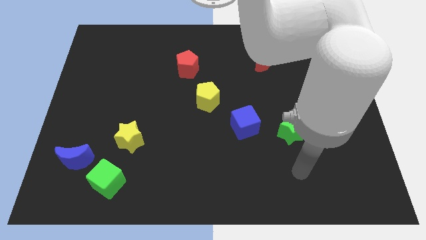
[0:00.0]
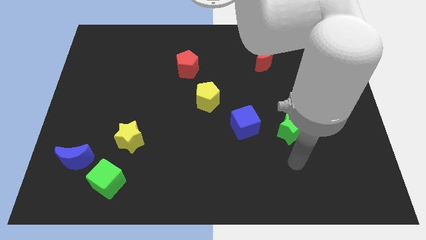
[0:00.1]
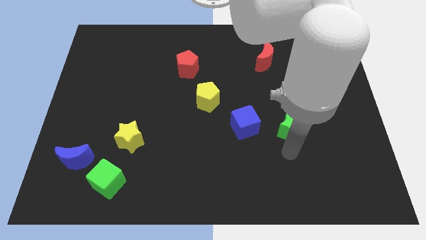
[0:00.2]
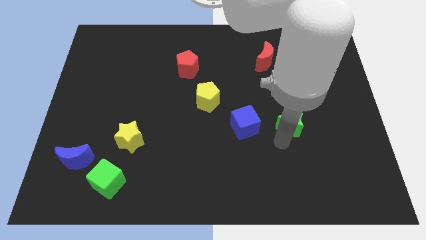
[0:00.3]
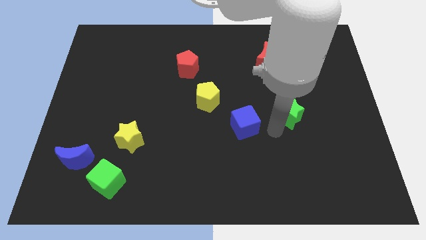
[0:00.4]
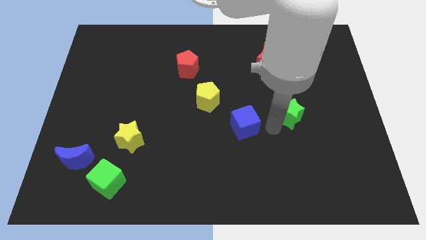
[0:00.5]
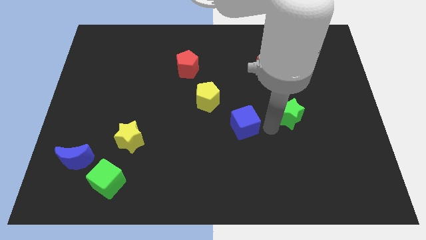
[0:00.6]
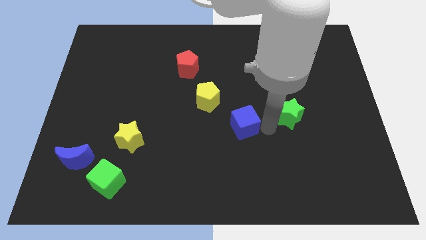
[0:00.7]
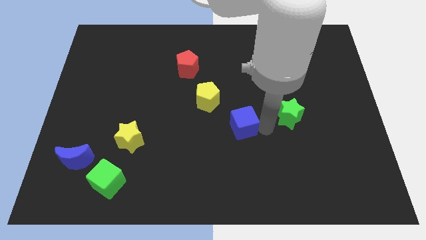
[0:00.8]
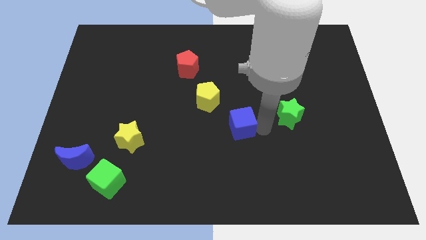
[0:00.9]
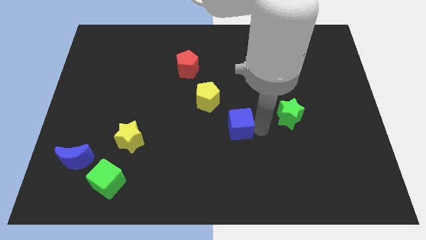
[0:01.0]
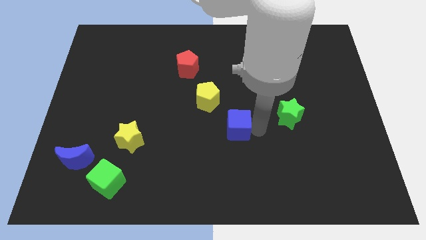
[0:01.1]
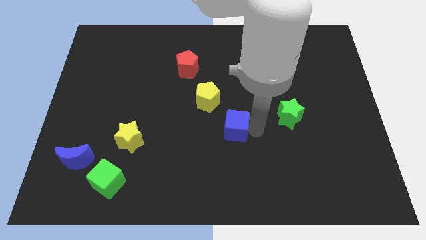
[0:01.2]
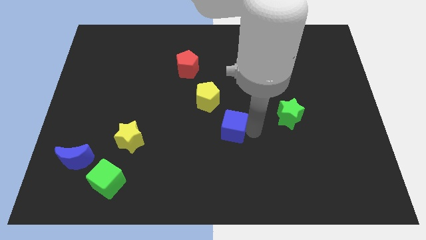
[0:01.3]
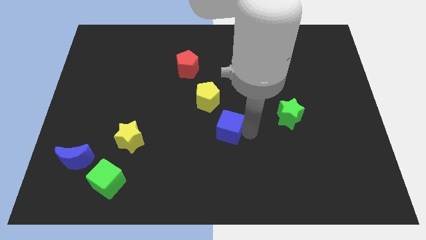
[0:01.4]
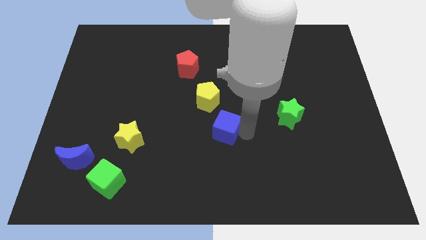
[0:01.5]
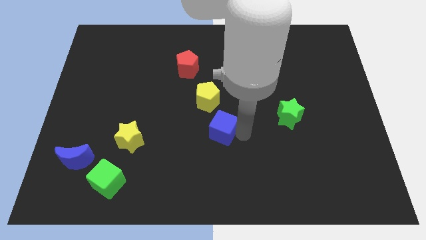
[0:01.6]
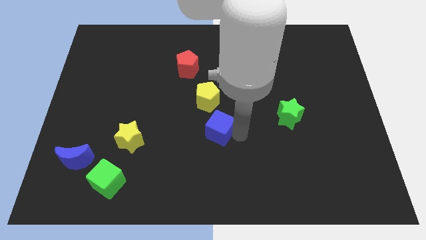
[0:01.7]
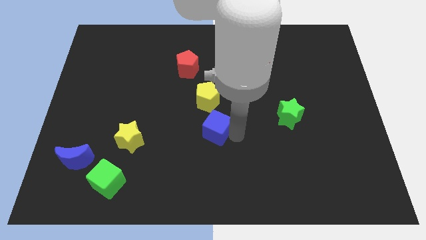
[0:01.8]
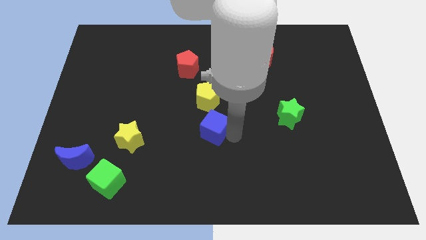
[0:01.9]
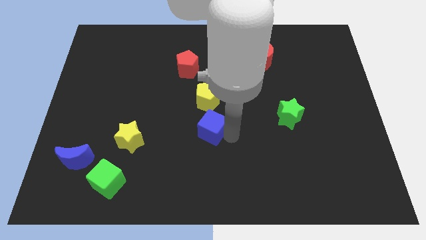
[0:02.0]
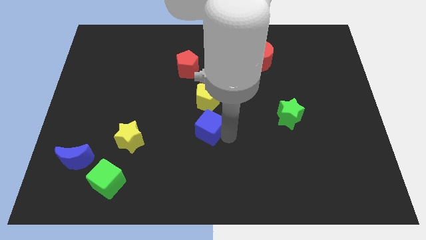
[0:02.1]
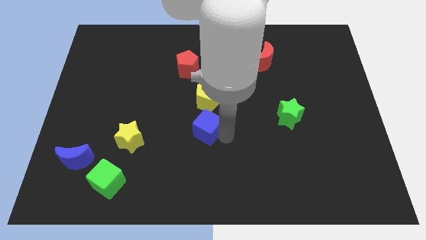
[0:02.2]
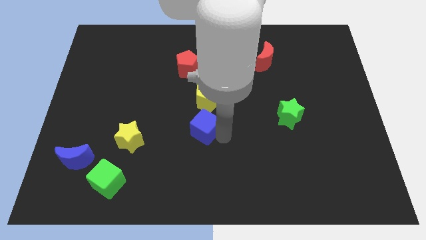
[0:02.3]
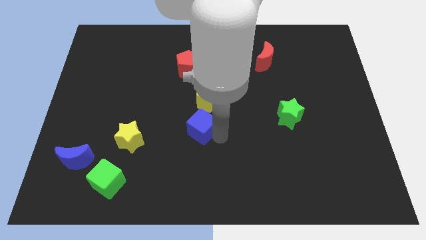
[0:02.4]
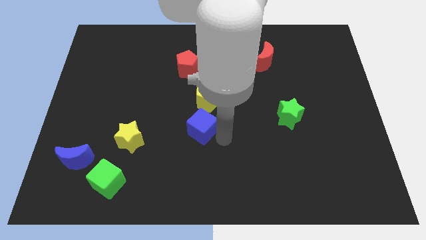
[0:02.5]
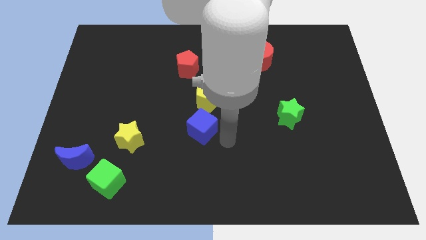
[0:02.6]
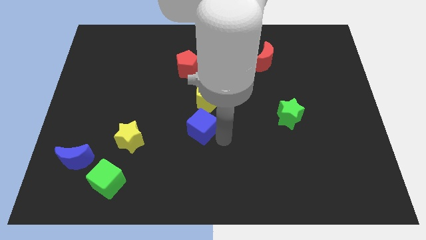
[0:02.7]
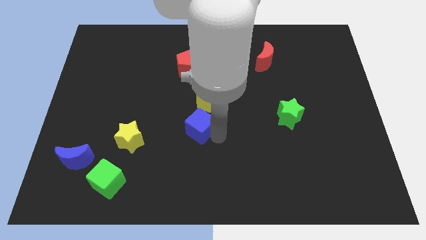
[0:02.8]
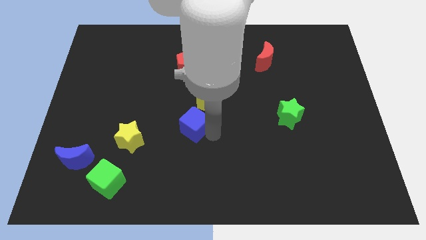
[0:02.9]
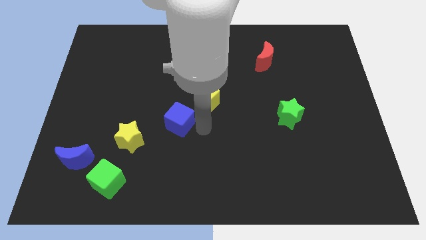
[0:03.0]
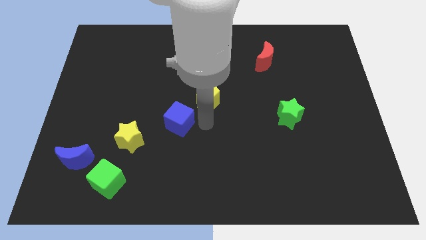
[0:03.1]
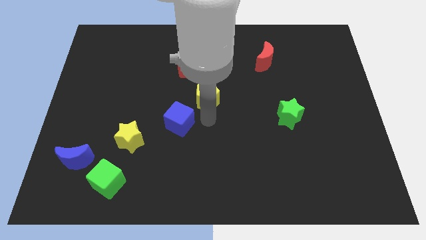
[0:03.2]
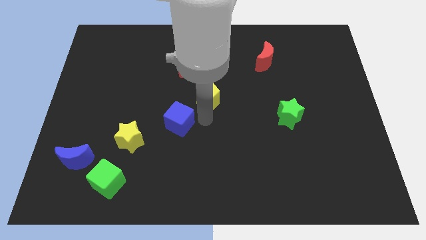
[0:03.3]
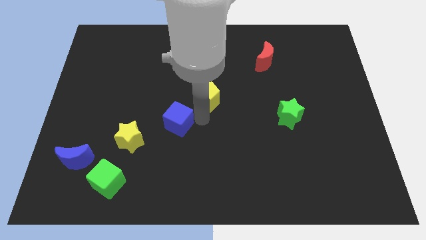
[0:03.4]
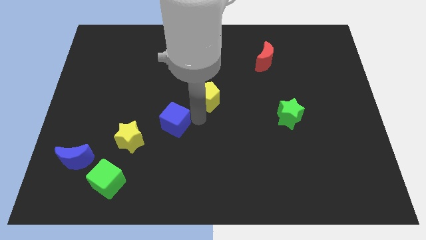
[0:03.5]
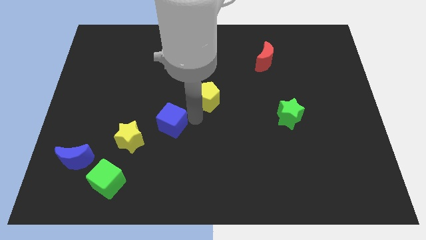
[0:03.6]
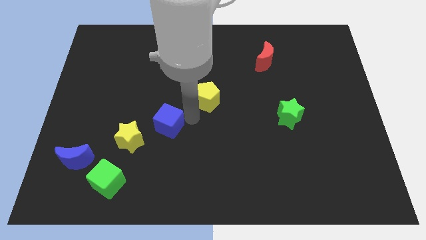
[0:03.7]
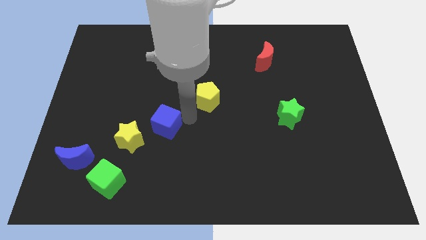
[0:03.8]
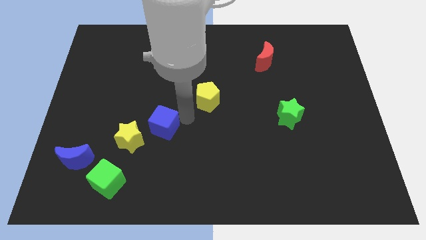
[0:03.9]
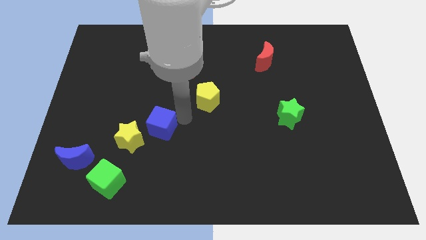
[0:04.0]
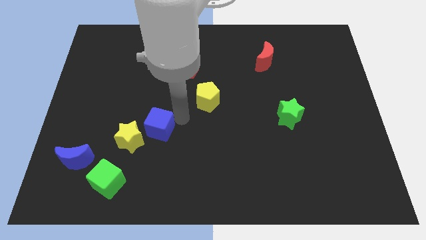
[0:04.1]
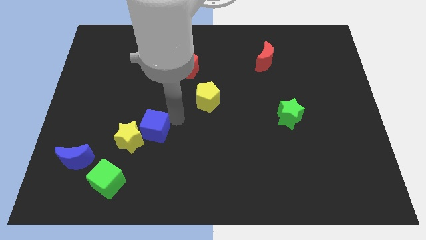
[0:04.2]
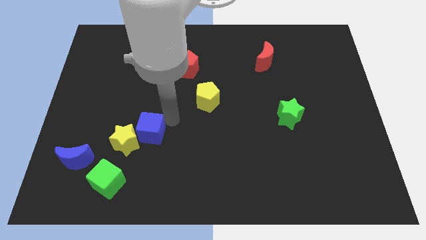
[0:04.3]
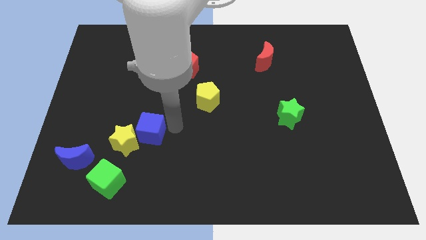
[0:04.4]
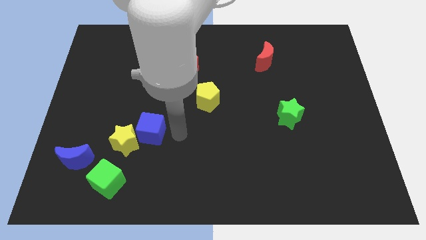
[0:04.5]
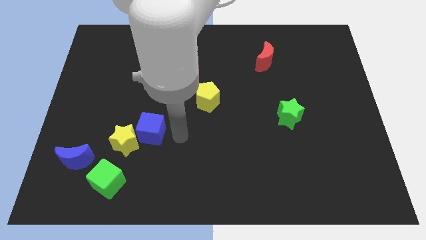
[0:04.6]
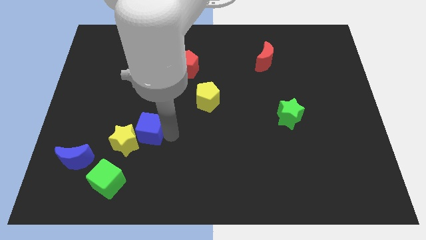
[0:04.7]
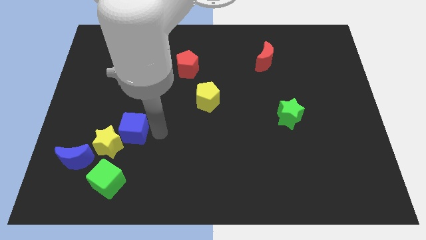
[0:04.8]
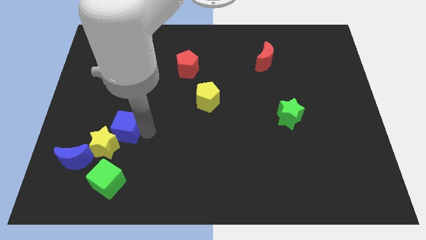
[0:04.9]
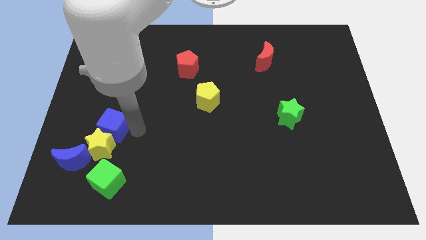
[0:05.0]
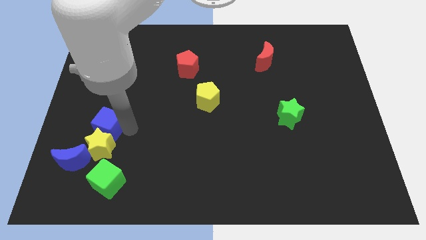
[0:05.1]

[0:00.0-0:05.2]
slide the blue cube diagonally up and to the left of the yellow star

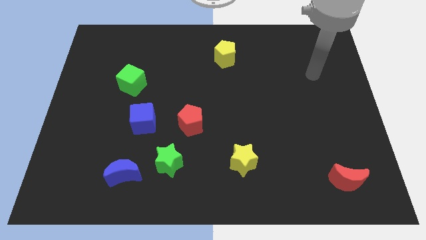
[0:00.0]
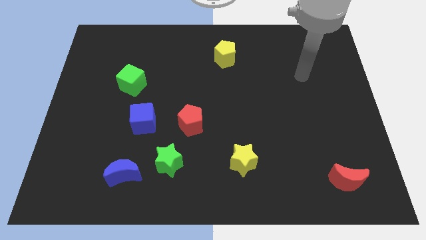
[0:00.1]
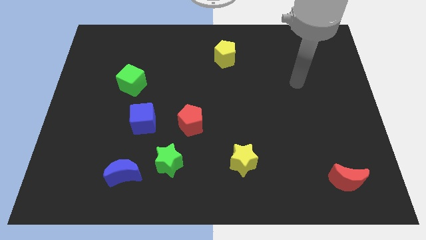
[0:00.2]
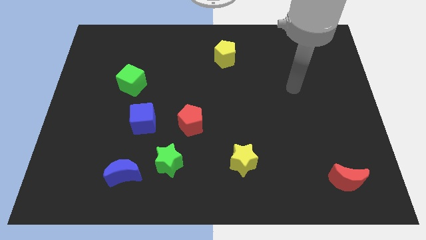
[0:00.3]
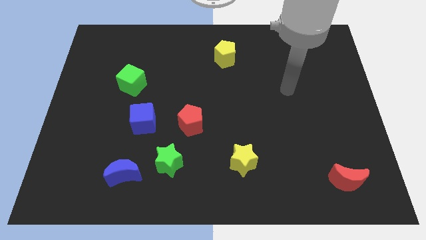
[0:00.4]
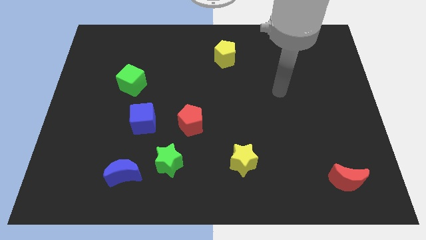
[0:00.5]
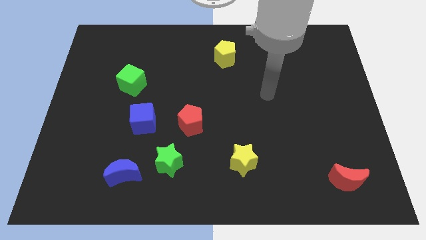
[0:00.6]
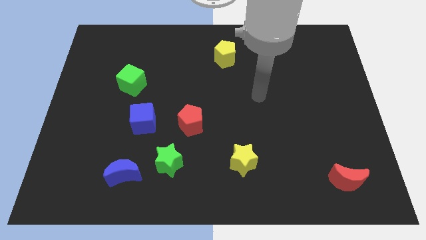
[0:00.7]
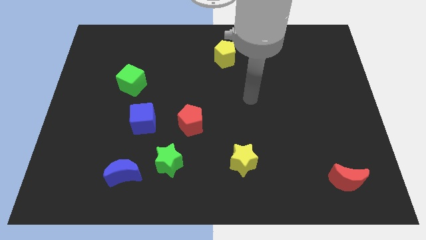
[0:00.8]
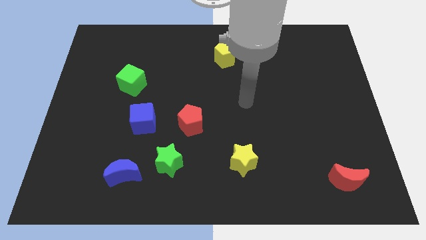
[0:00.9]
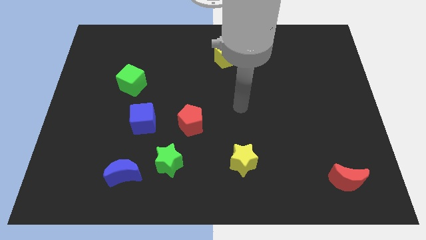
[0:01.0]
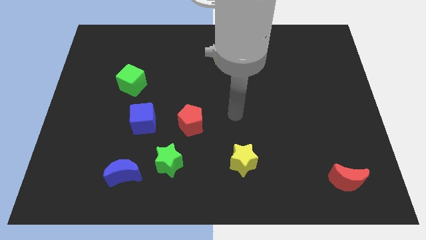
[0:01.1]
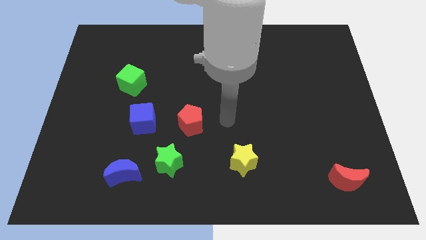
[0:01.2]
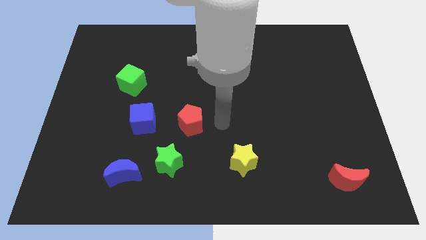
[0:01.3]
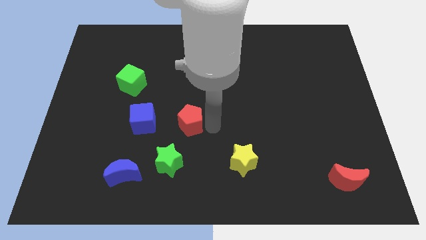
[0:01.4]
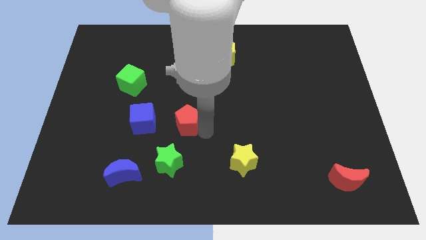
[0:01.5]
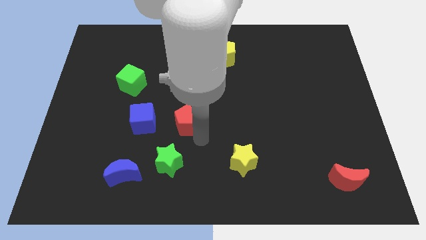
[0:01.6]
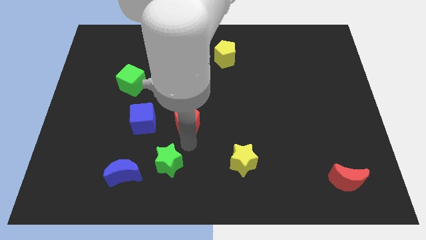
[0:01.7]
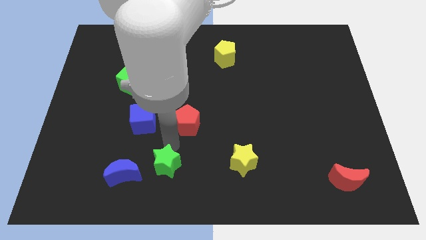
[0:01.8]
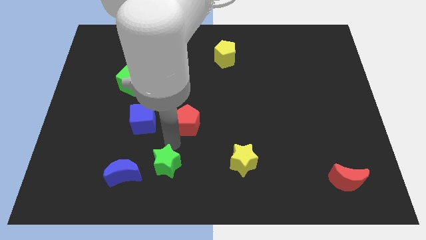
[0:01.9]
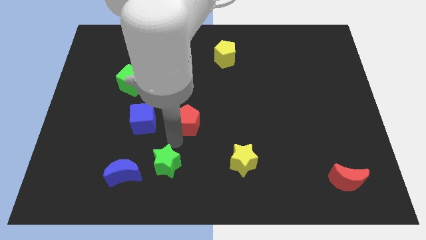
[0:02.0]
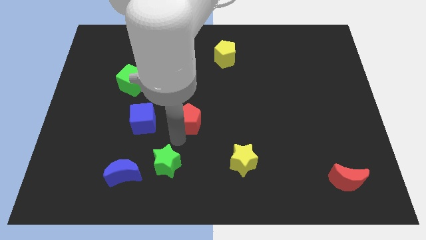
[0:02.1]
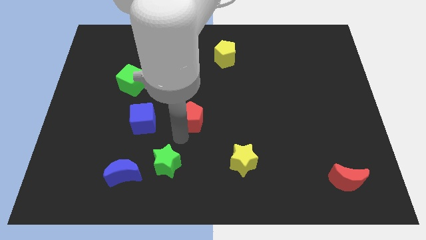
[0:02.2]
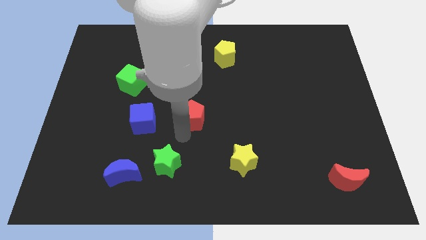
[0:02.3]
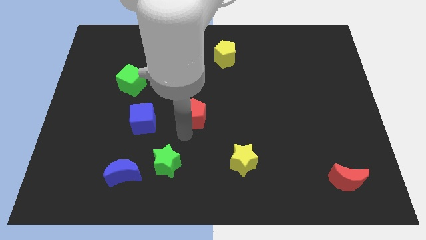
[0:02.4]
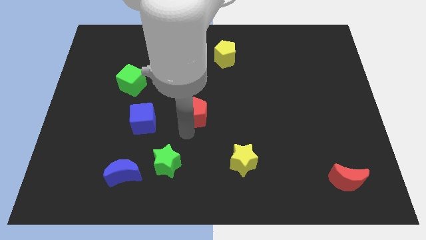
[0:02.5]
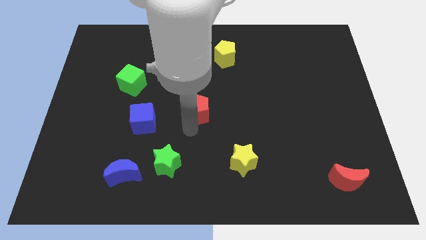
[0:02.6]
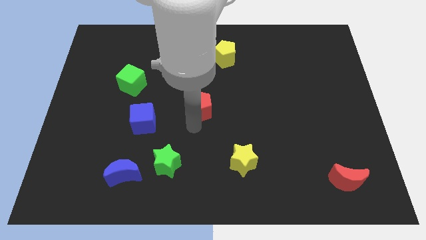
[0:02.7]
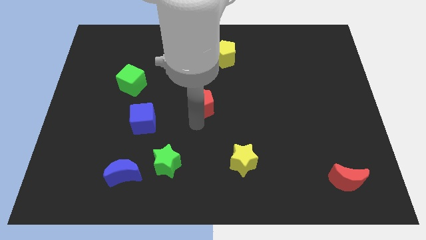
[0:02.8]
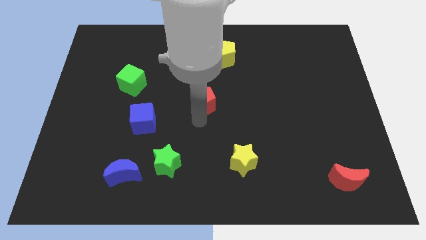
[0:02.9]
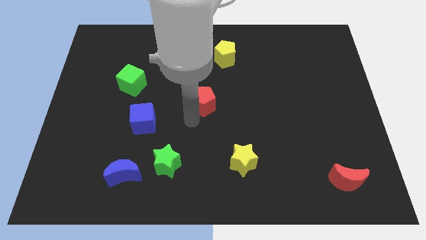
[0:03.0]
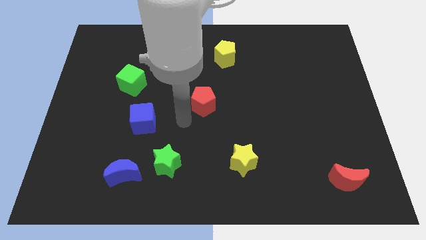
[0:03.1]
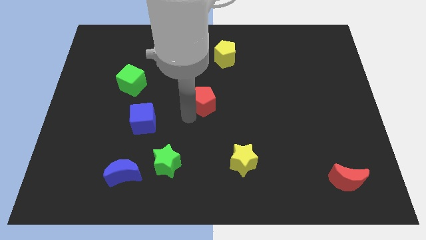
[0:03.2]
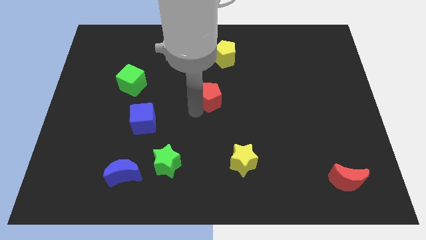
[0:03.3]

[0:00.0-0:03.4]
put the red pentagon below the yellow pentagon
